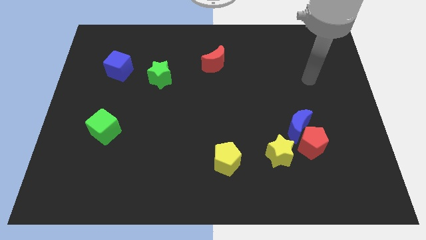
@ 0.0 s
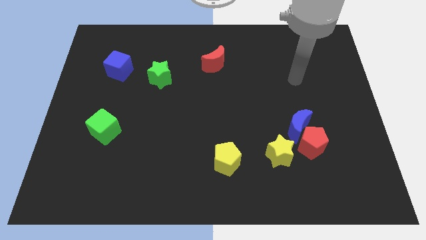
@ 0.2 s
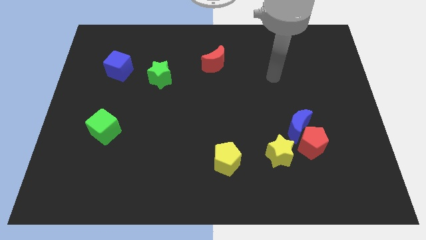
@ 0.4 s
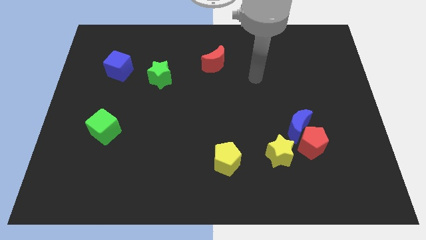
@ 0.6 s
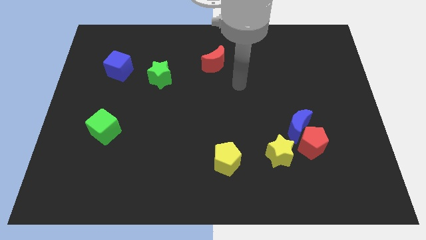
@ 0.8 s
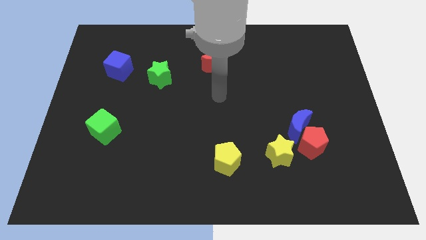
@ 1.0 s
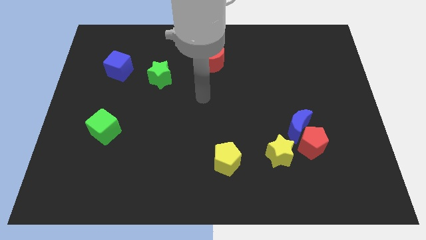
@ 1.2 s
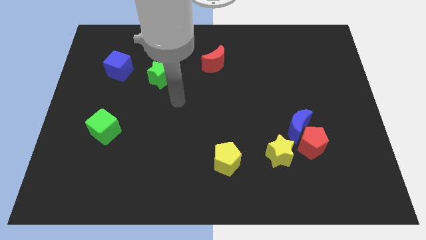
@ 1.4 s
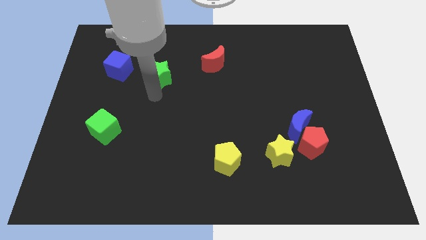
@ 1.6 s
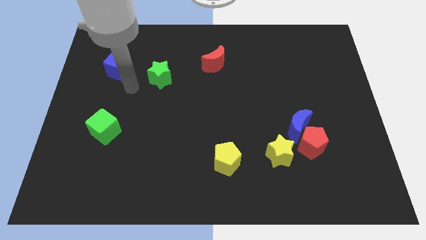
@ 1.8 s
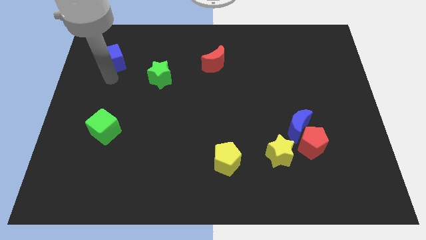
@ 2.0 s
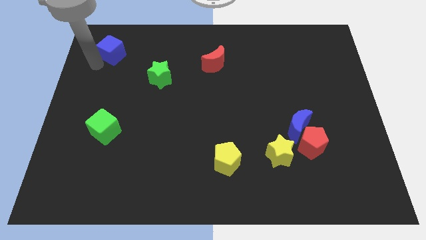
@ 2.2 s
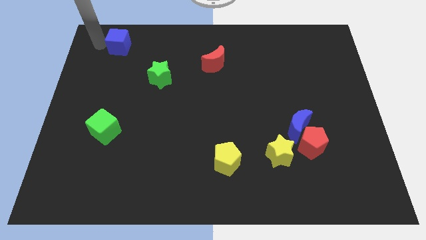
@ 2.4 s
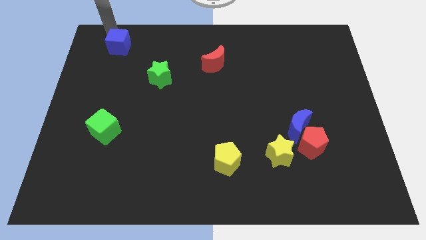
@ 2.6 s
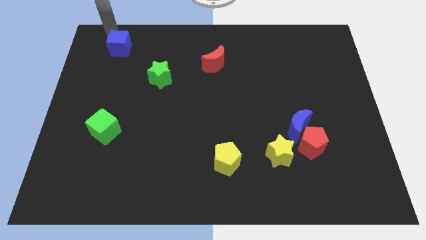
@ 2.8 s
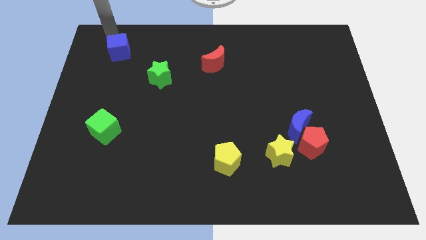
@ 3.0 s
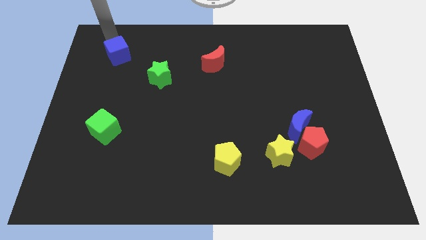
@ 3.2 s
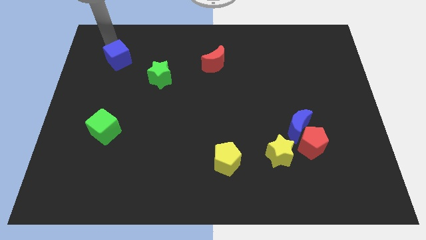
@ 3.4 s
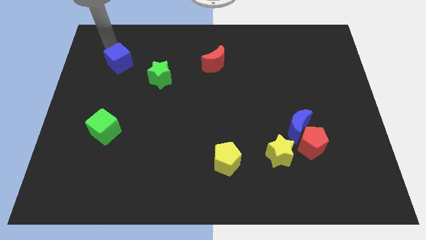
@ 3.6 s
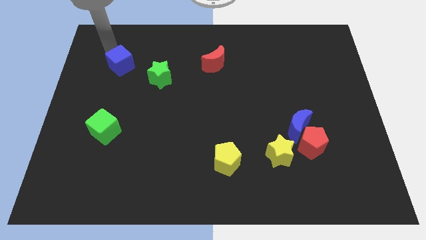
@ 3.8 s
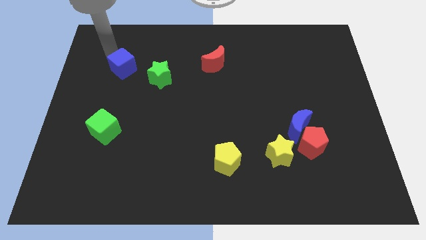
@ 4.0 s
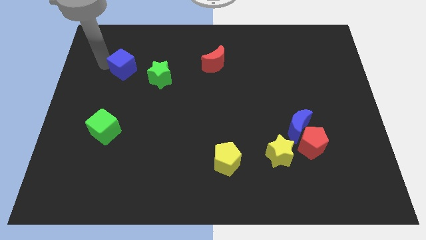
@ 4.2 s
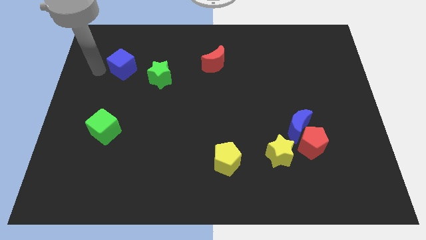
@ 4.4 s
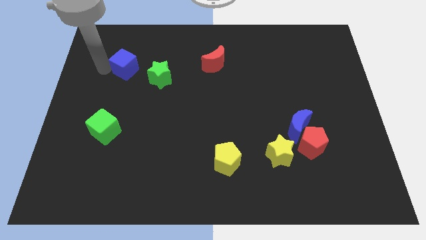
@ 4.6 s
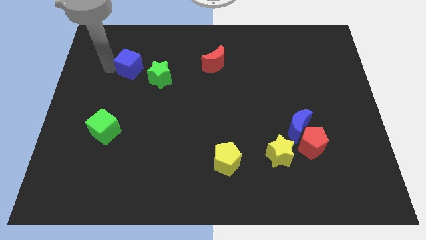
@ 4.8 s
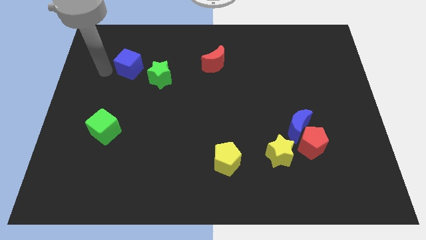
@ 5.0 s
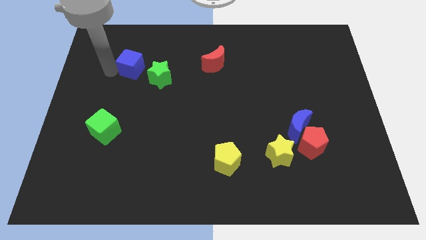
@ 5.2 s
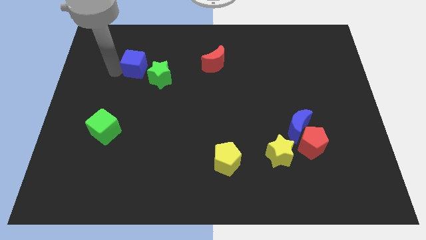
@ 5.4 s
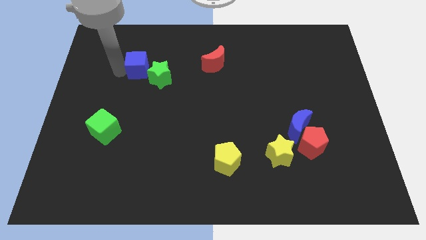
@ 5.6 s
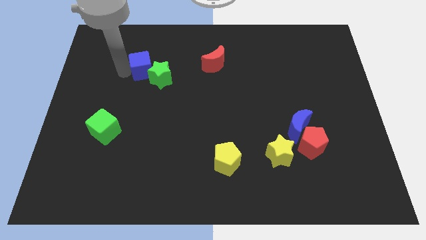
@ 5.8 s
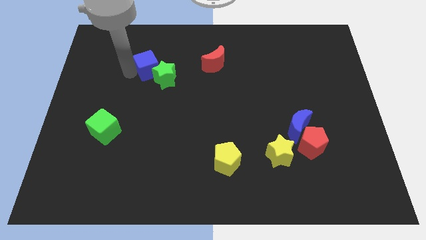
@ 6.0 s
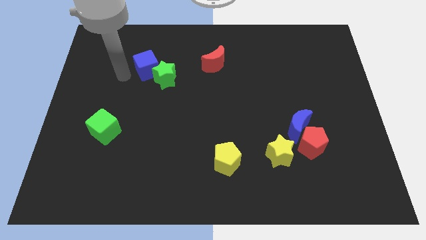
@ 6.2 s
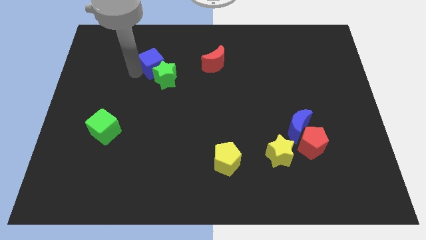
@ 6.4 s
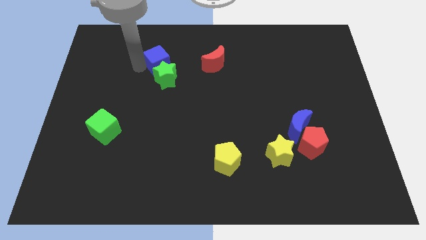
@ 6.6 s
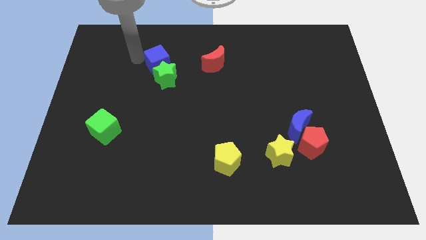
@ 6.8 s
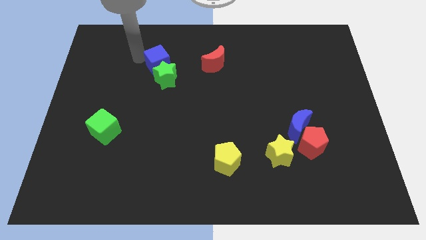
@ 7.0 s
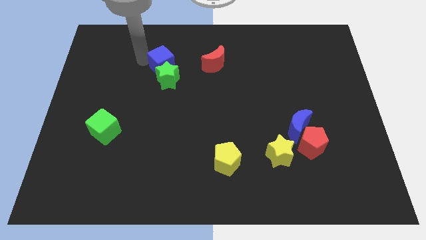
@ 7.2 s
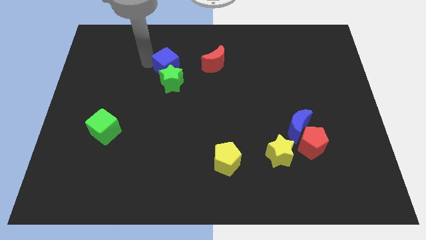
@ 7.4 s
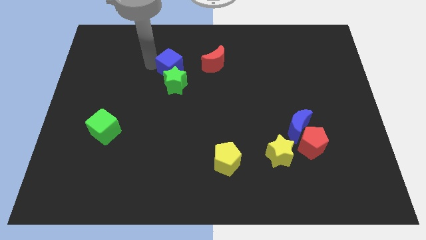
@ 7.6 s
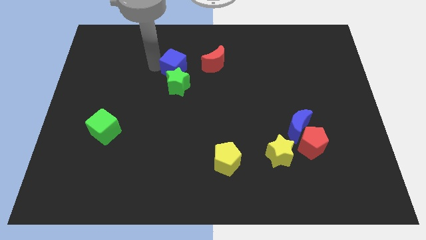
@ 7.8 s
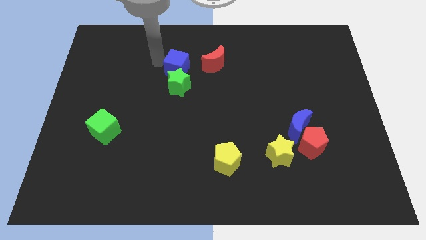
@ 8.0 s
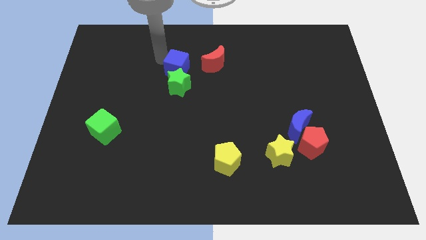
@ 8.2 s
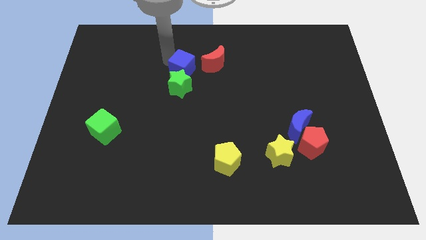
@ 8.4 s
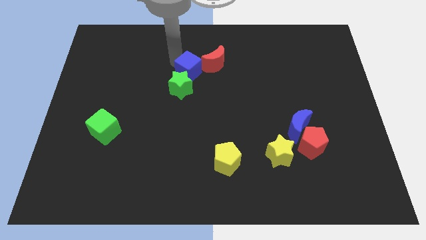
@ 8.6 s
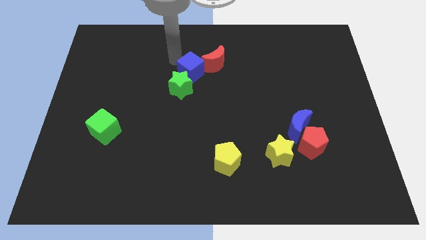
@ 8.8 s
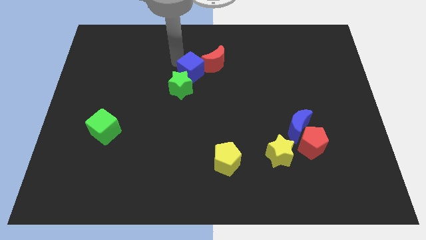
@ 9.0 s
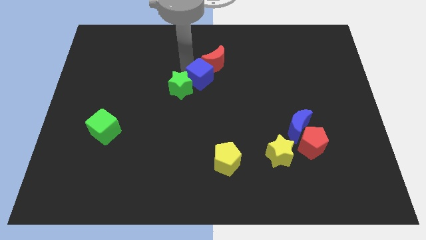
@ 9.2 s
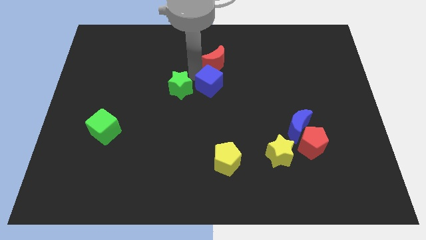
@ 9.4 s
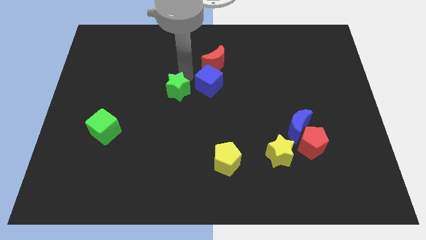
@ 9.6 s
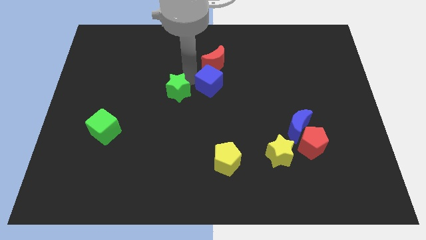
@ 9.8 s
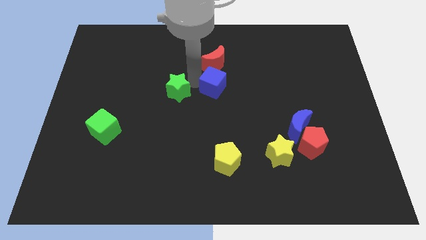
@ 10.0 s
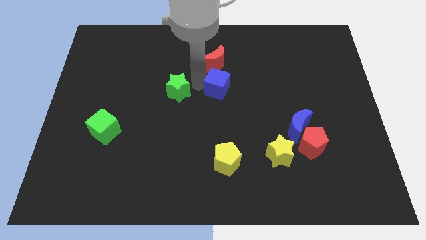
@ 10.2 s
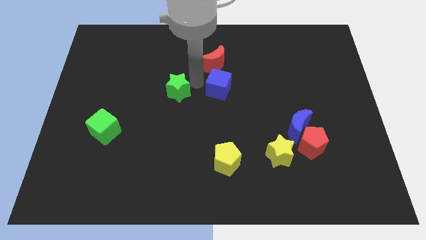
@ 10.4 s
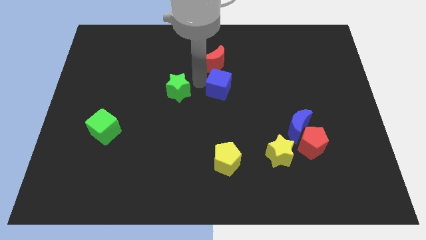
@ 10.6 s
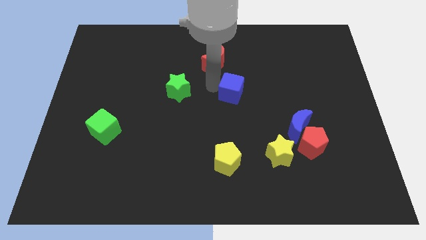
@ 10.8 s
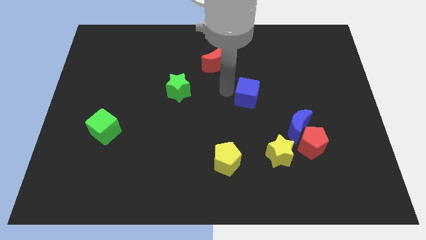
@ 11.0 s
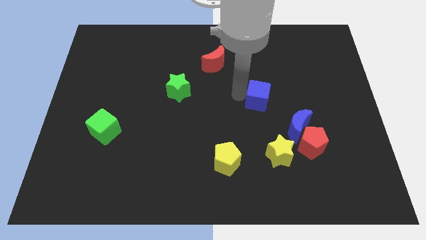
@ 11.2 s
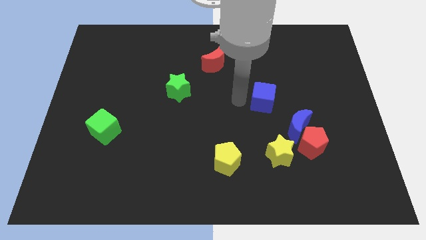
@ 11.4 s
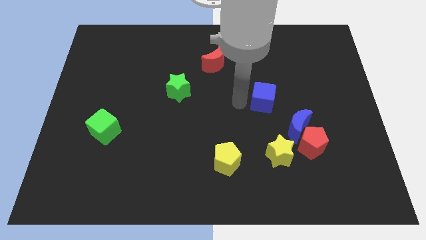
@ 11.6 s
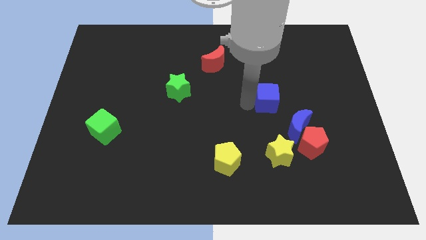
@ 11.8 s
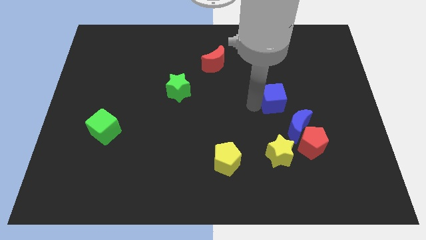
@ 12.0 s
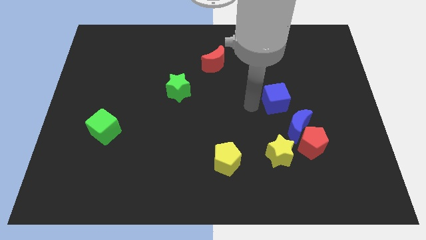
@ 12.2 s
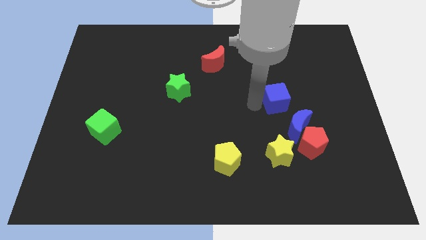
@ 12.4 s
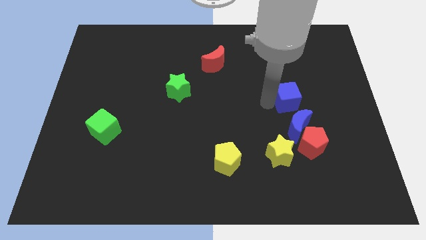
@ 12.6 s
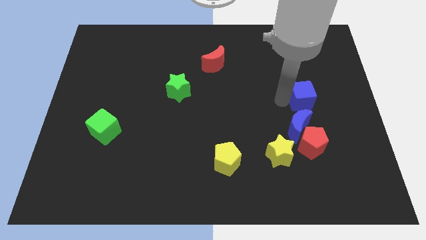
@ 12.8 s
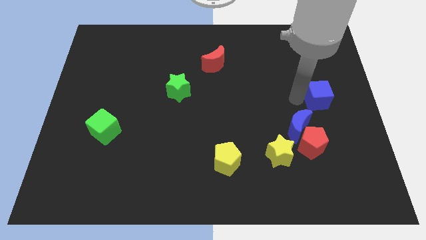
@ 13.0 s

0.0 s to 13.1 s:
move the blue cube to the right side of the board
